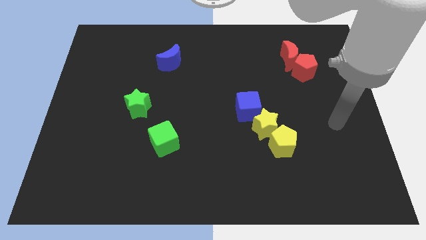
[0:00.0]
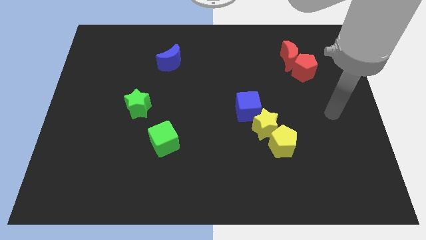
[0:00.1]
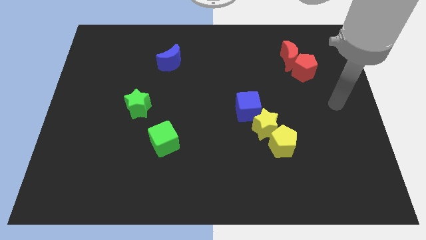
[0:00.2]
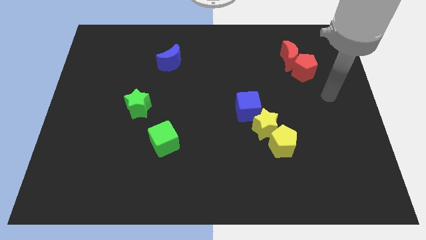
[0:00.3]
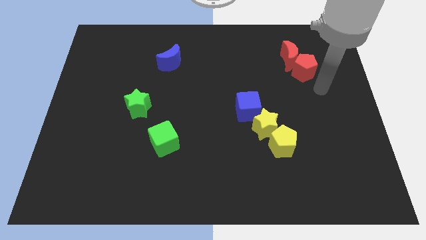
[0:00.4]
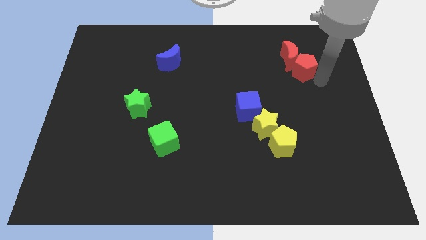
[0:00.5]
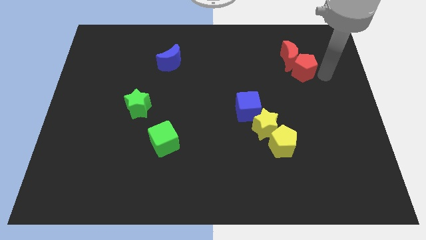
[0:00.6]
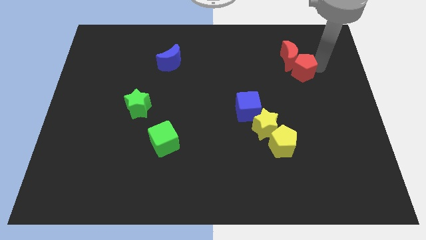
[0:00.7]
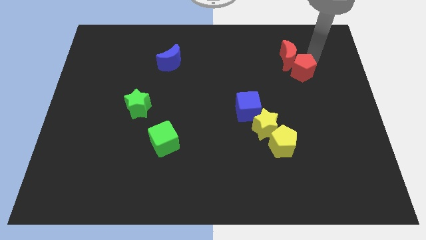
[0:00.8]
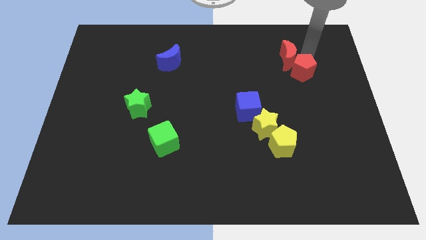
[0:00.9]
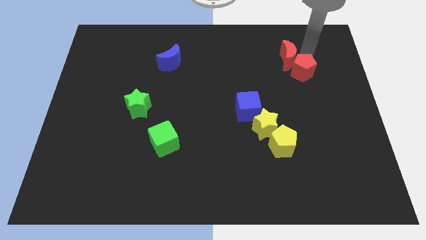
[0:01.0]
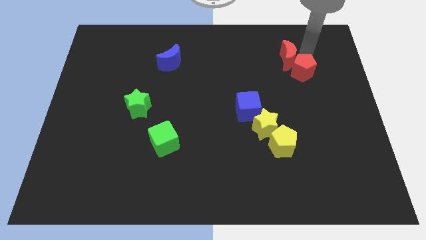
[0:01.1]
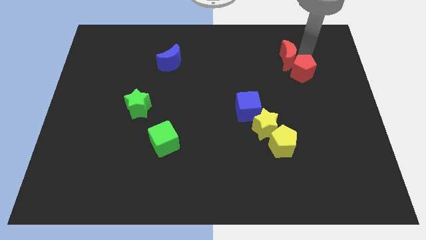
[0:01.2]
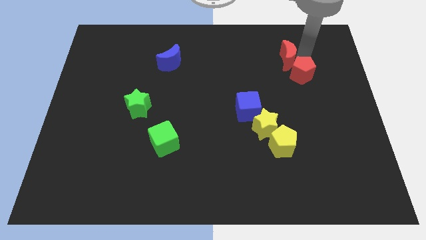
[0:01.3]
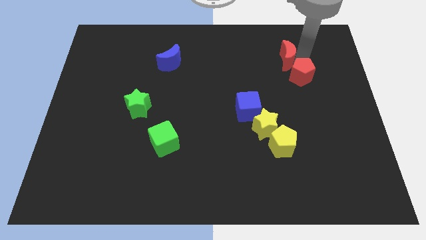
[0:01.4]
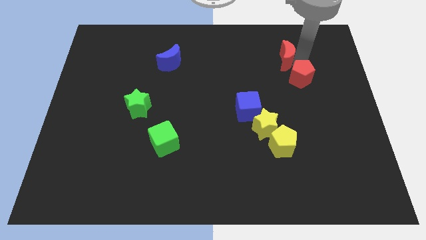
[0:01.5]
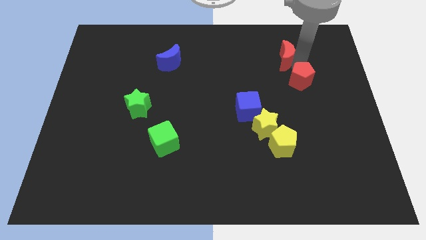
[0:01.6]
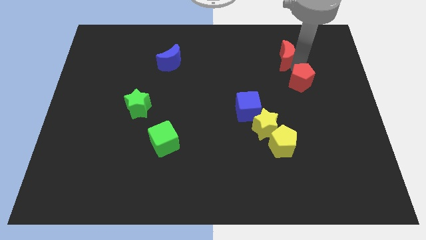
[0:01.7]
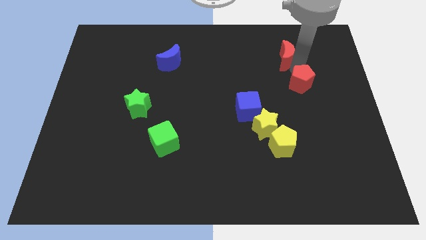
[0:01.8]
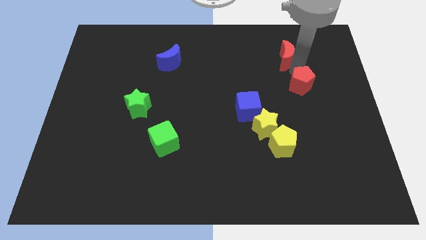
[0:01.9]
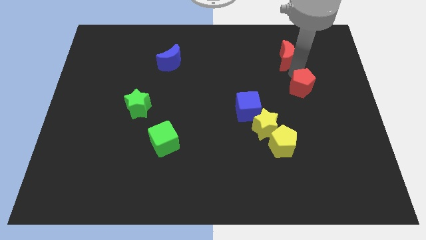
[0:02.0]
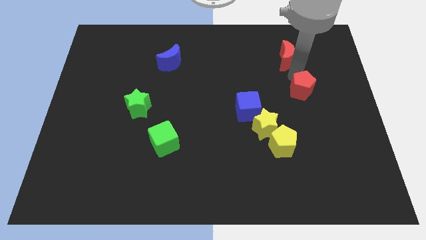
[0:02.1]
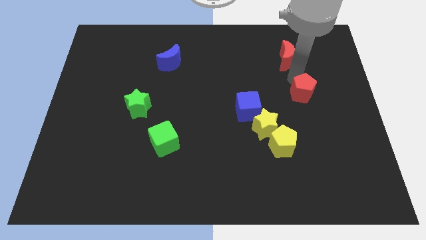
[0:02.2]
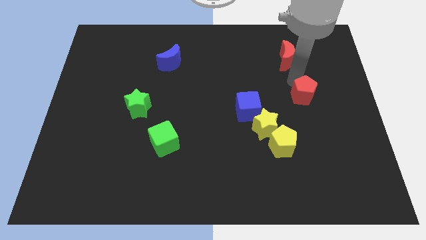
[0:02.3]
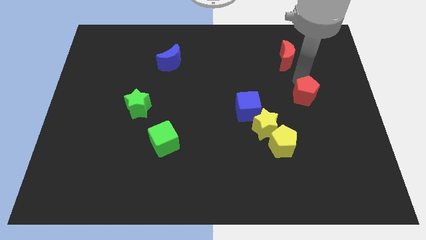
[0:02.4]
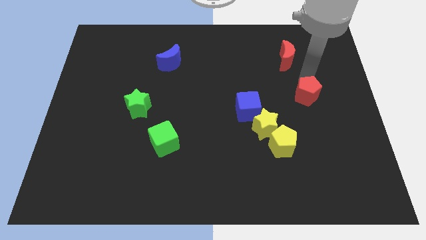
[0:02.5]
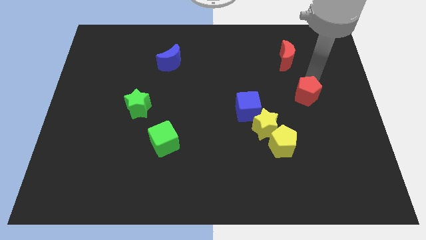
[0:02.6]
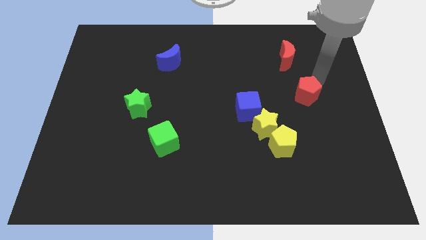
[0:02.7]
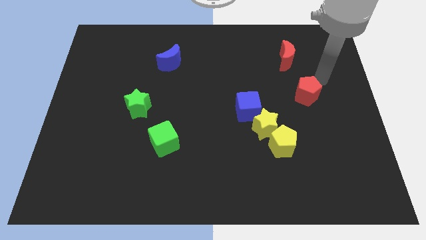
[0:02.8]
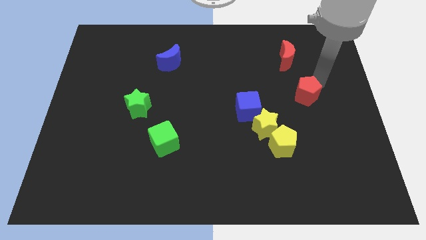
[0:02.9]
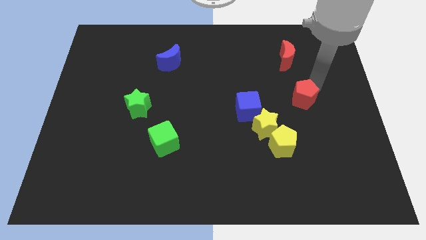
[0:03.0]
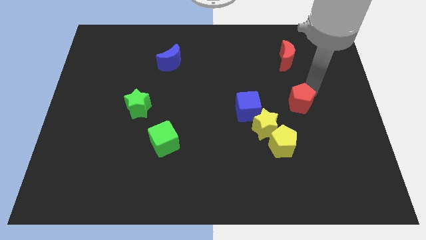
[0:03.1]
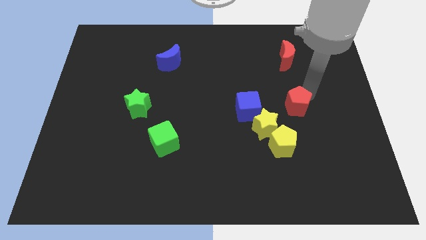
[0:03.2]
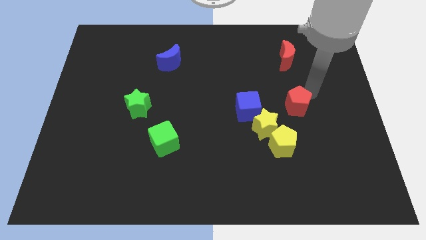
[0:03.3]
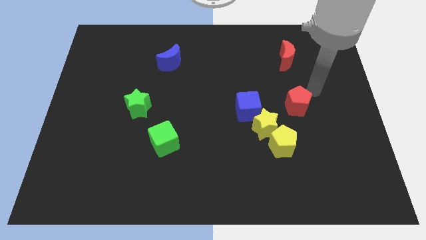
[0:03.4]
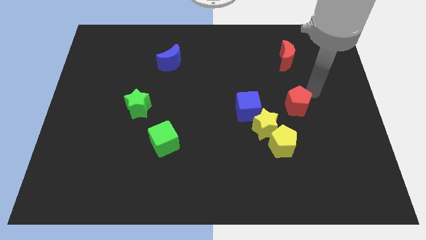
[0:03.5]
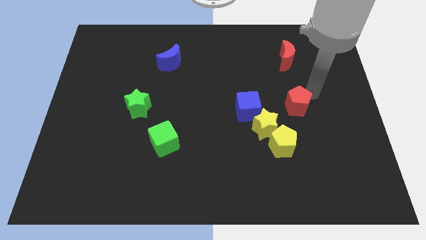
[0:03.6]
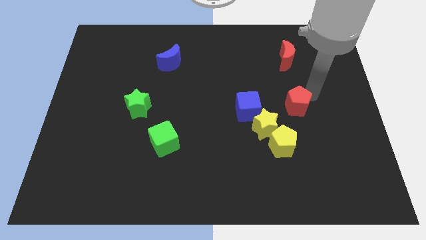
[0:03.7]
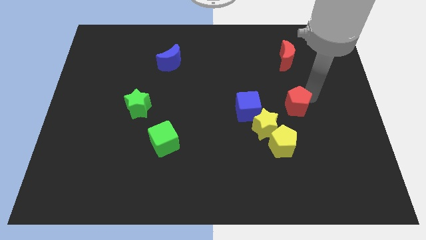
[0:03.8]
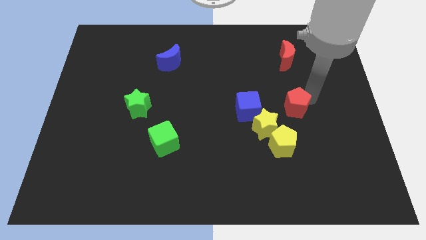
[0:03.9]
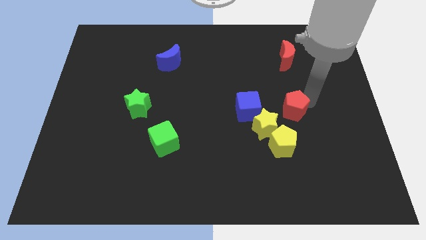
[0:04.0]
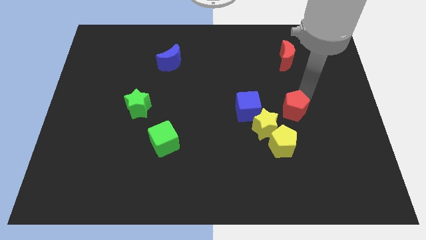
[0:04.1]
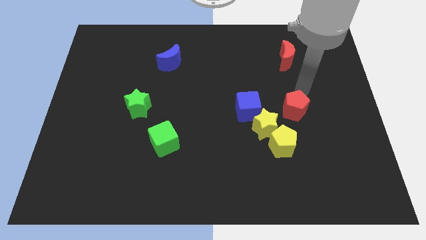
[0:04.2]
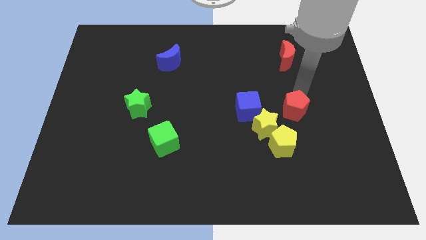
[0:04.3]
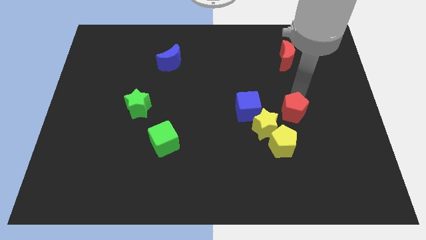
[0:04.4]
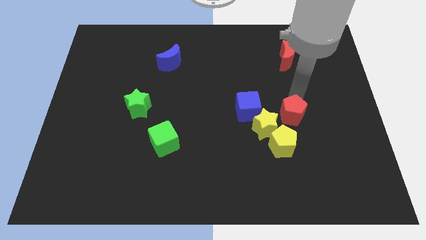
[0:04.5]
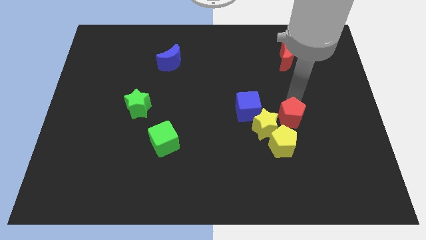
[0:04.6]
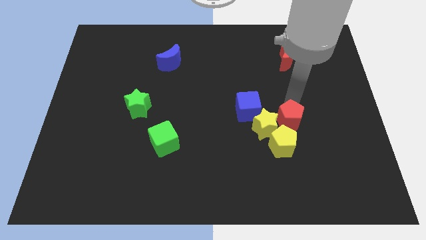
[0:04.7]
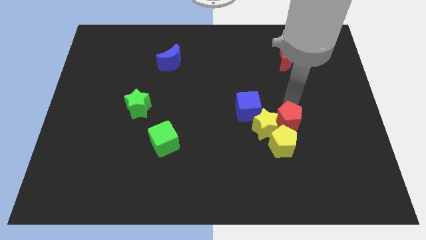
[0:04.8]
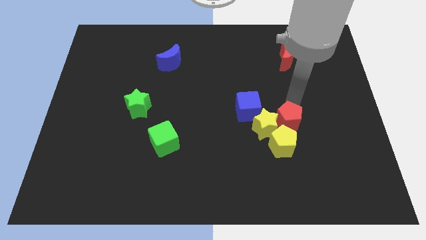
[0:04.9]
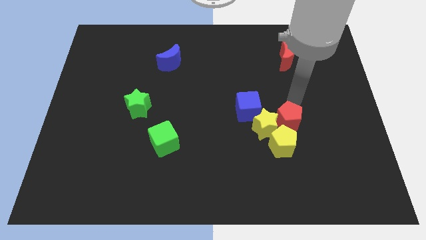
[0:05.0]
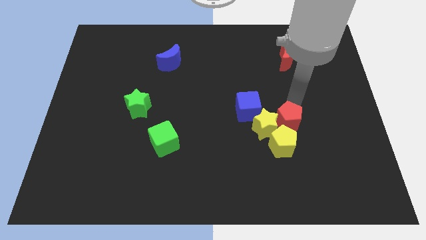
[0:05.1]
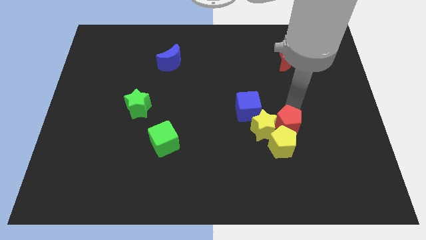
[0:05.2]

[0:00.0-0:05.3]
put the red pentagon to the yellow pentagon

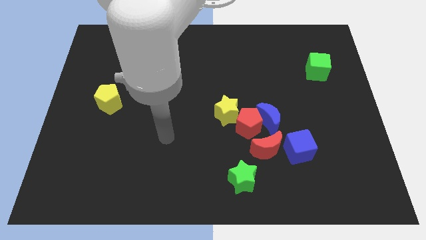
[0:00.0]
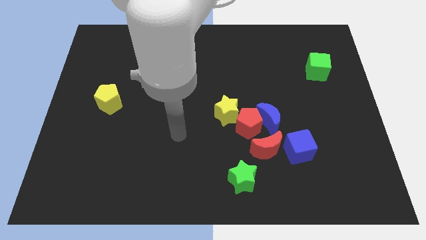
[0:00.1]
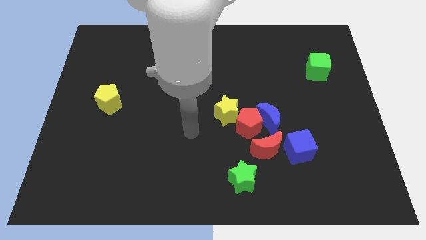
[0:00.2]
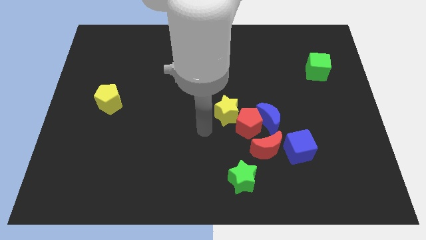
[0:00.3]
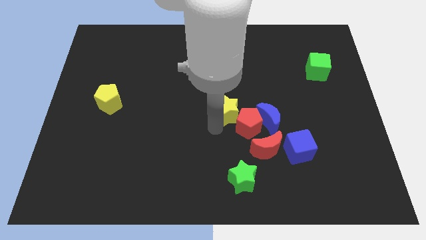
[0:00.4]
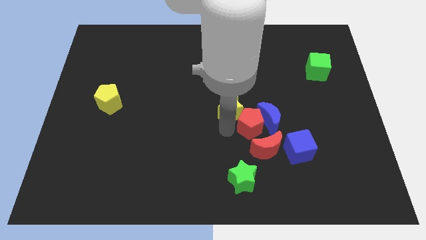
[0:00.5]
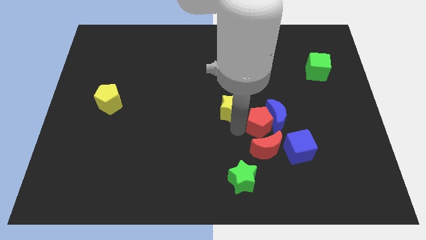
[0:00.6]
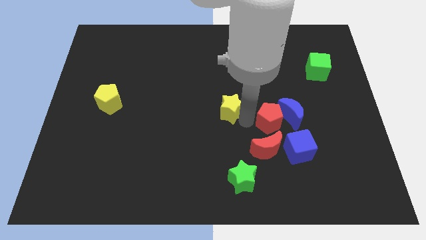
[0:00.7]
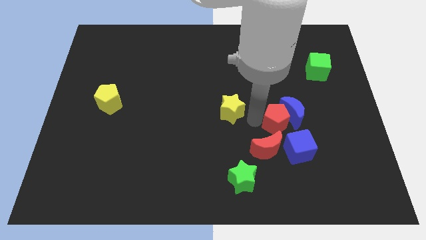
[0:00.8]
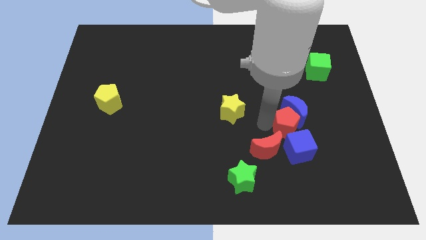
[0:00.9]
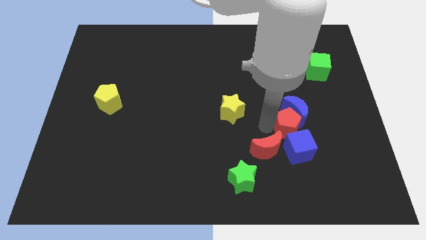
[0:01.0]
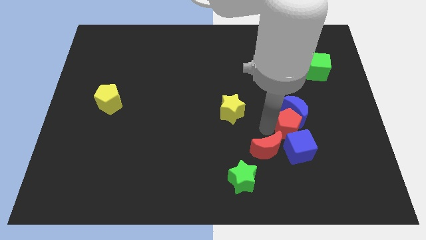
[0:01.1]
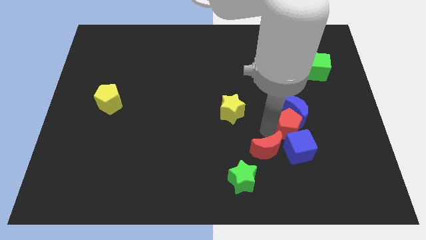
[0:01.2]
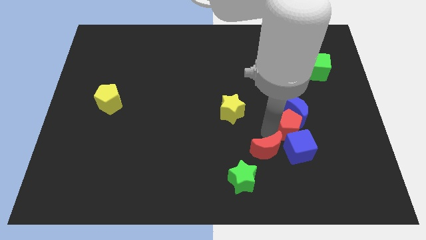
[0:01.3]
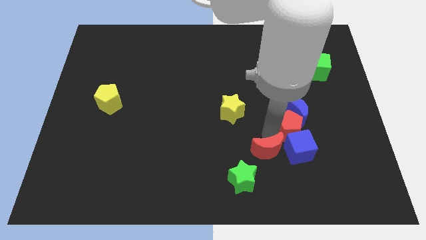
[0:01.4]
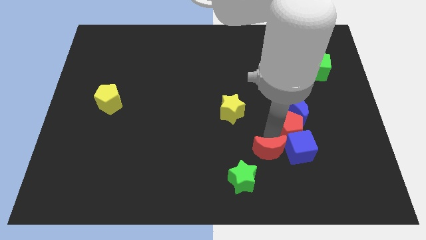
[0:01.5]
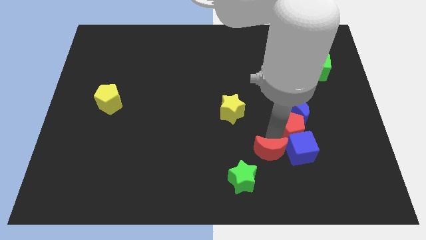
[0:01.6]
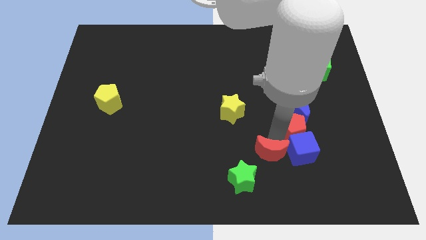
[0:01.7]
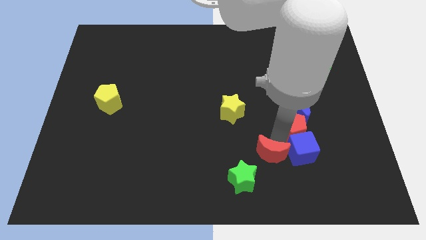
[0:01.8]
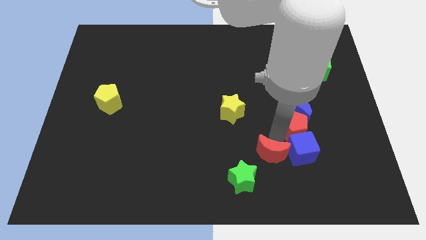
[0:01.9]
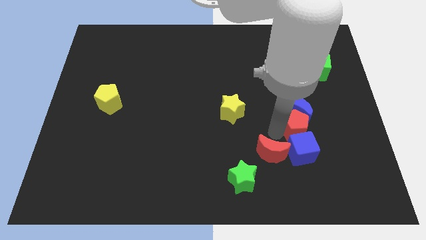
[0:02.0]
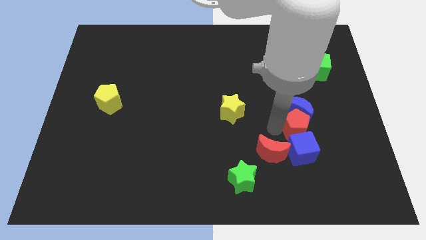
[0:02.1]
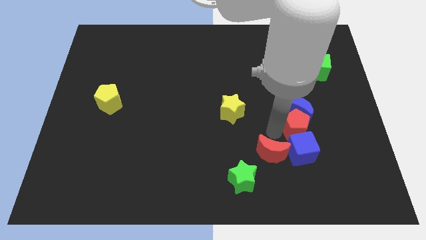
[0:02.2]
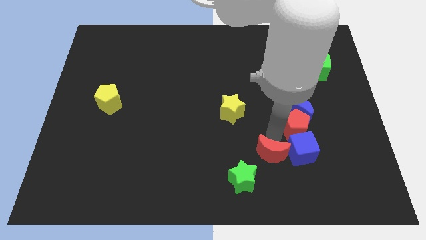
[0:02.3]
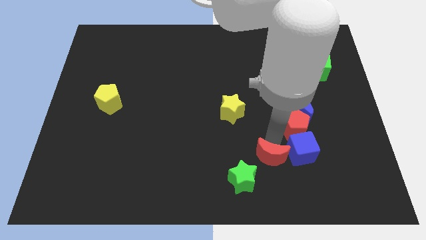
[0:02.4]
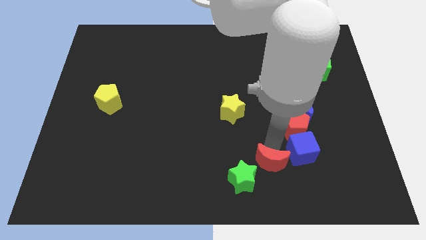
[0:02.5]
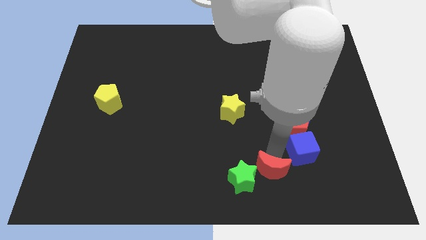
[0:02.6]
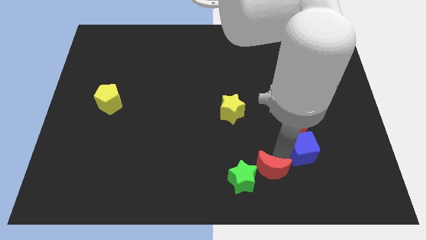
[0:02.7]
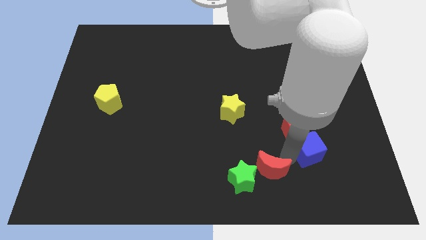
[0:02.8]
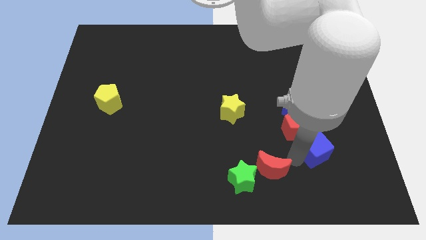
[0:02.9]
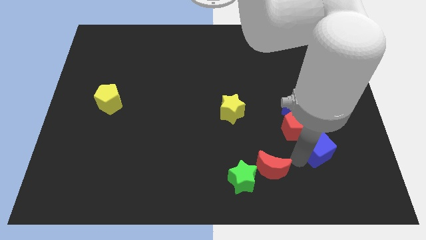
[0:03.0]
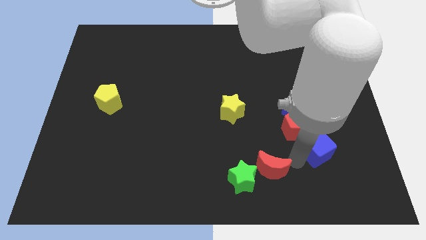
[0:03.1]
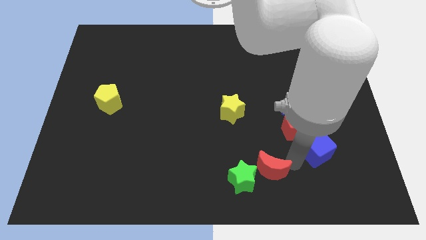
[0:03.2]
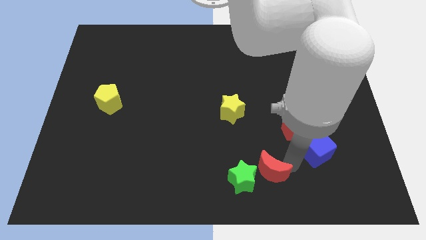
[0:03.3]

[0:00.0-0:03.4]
push the red moon next to the green star
